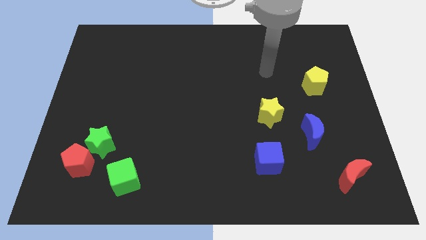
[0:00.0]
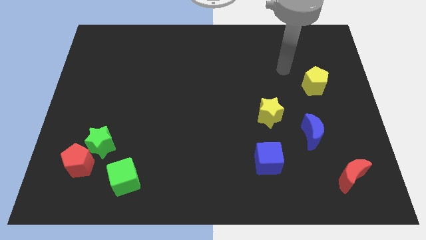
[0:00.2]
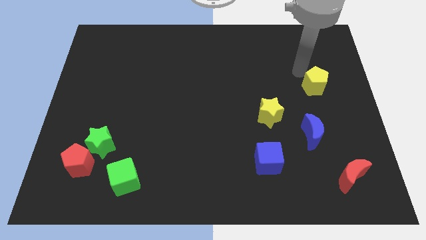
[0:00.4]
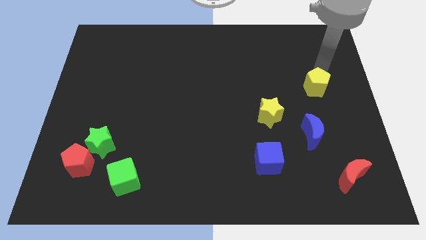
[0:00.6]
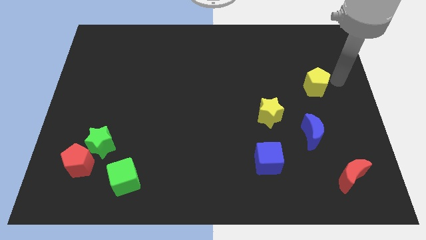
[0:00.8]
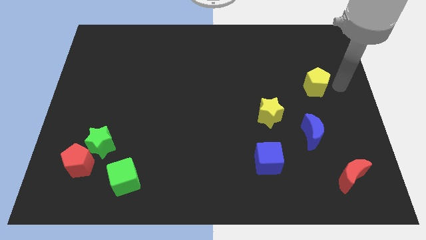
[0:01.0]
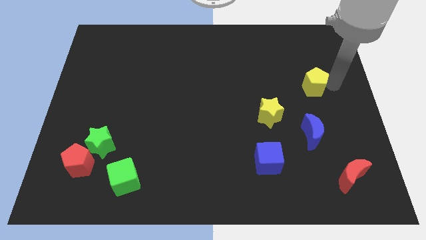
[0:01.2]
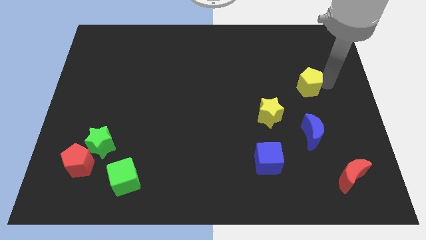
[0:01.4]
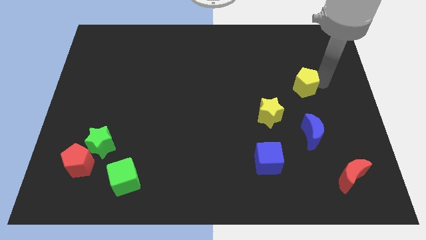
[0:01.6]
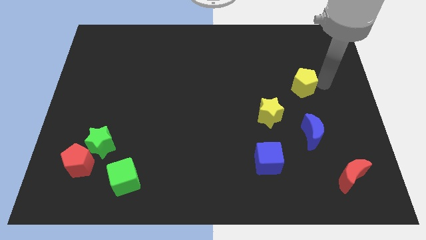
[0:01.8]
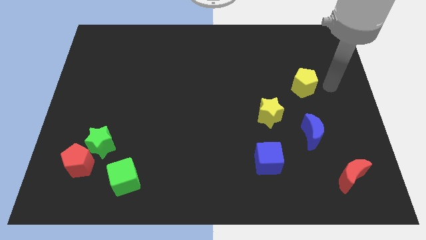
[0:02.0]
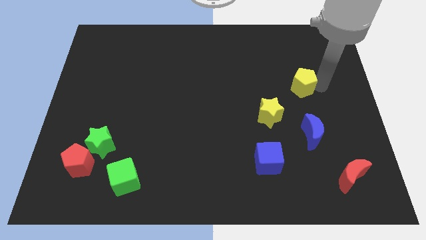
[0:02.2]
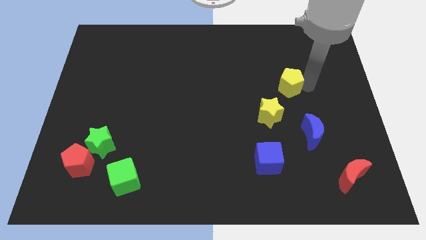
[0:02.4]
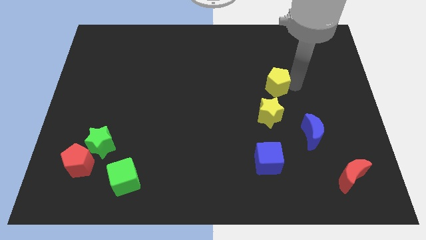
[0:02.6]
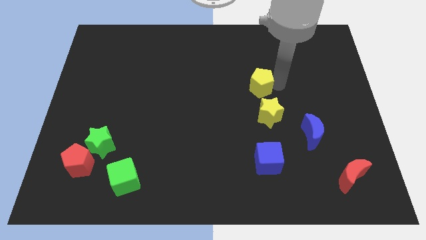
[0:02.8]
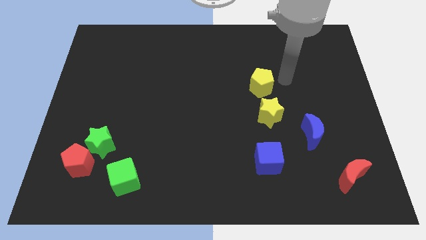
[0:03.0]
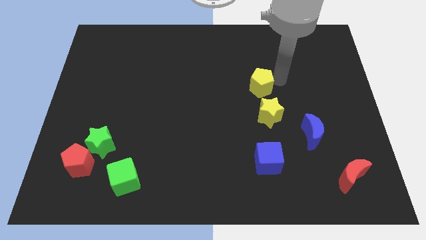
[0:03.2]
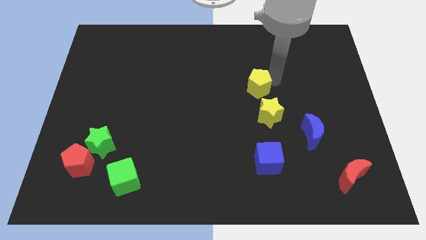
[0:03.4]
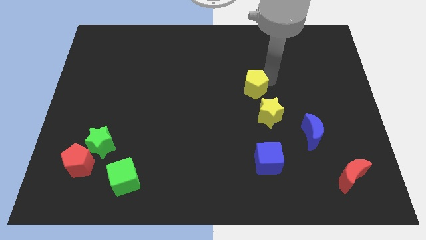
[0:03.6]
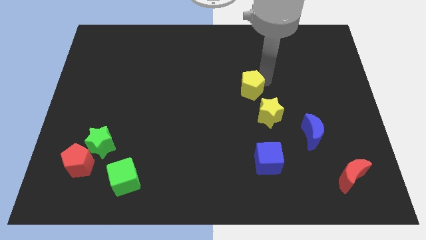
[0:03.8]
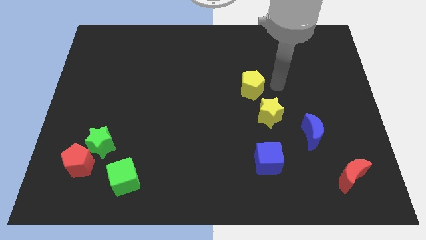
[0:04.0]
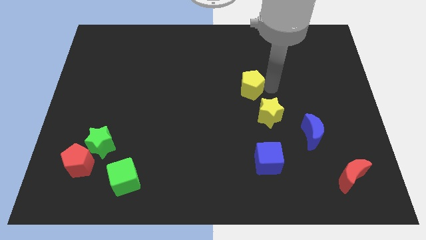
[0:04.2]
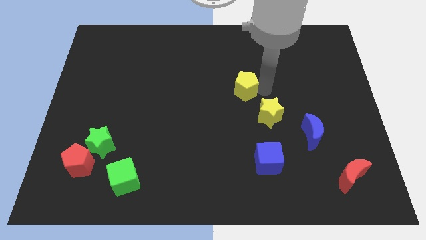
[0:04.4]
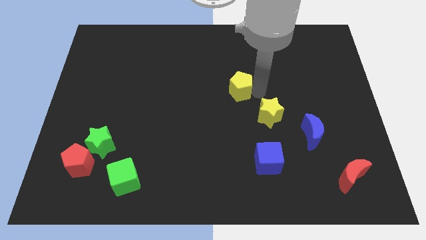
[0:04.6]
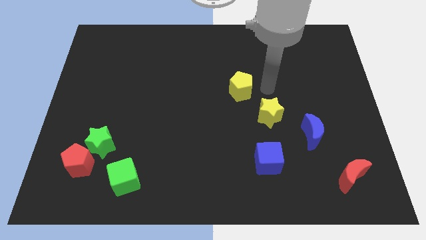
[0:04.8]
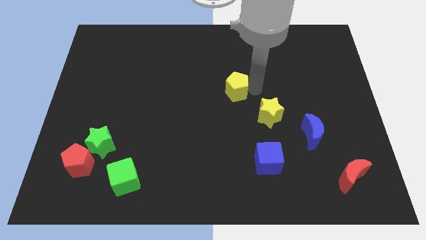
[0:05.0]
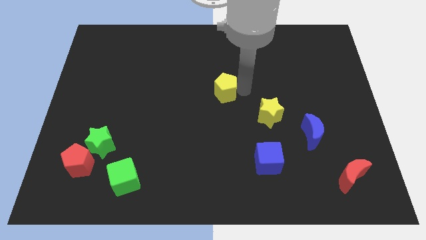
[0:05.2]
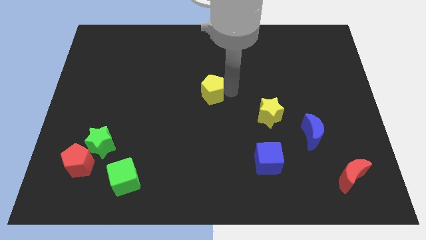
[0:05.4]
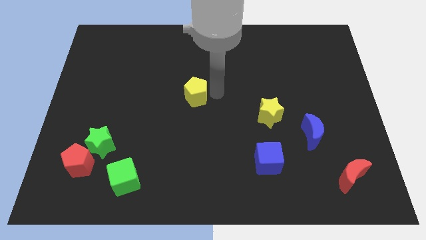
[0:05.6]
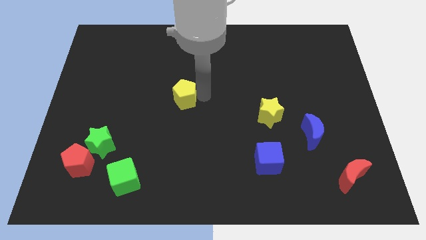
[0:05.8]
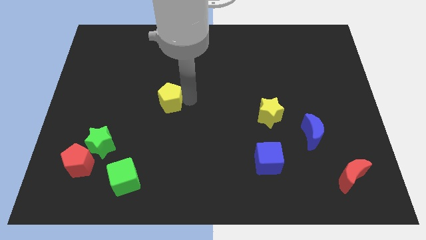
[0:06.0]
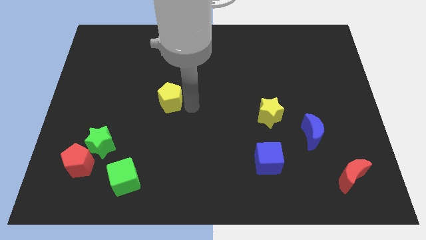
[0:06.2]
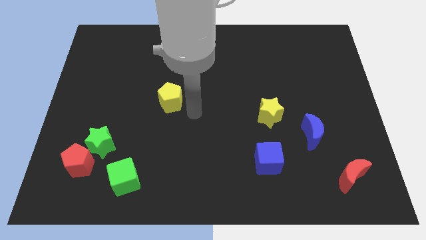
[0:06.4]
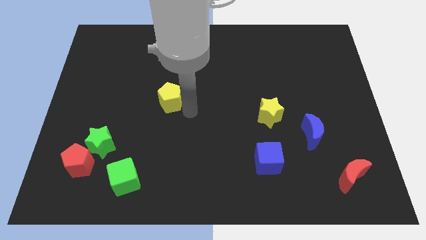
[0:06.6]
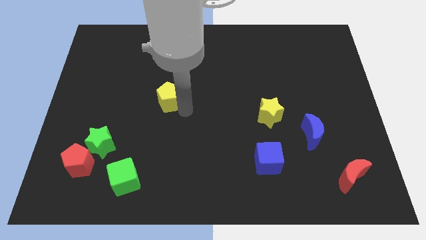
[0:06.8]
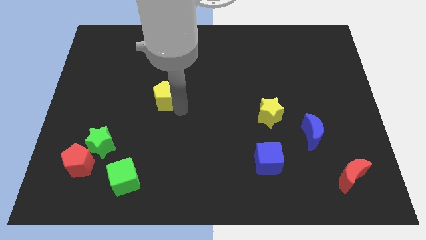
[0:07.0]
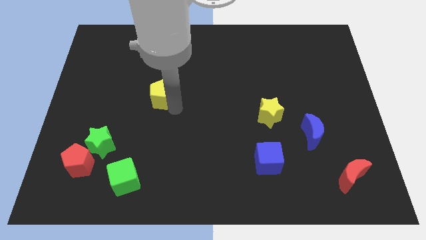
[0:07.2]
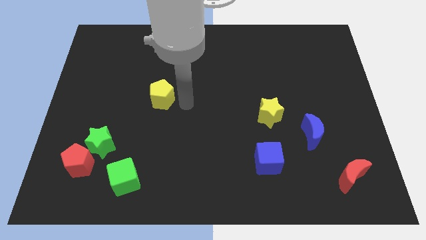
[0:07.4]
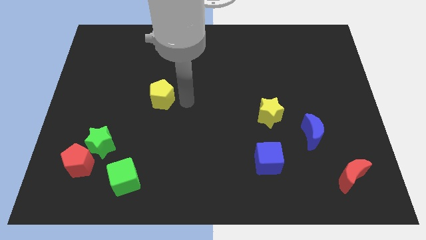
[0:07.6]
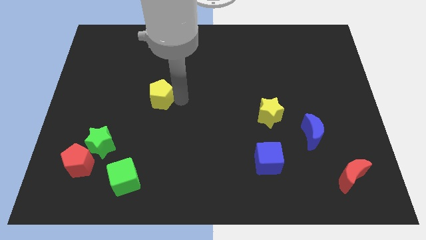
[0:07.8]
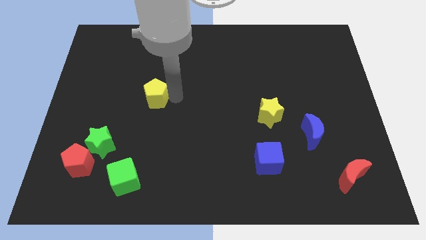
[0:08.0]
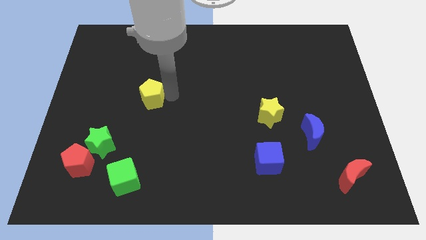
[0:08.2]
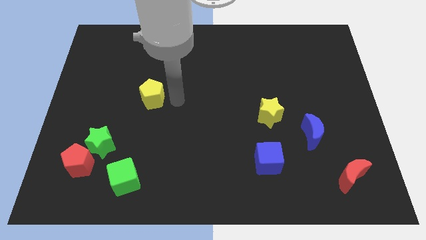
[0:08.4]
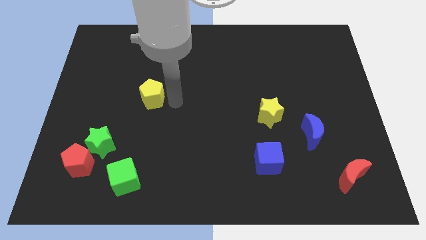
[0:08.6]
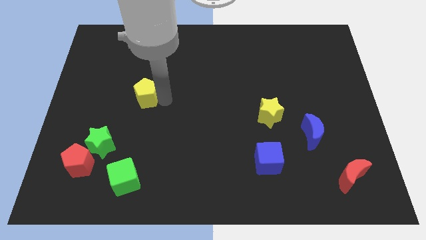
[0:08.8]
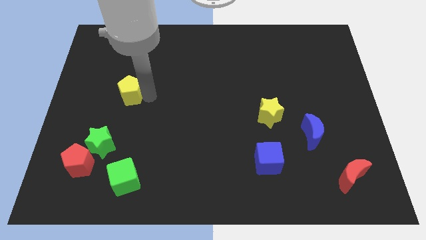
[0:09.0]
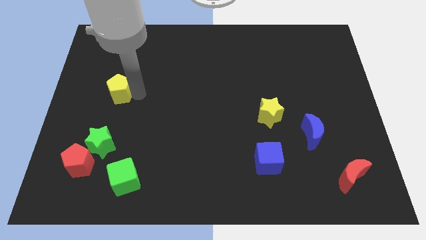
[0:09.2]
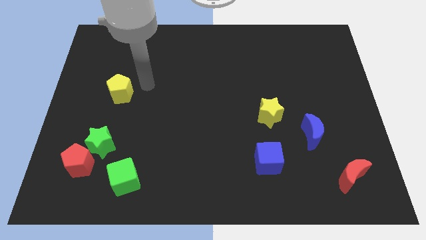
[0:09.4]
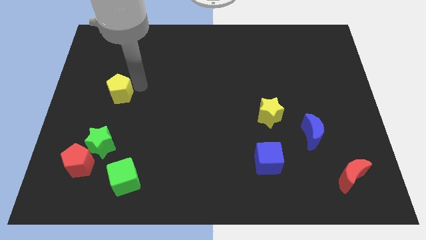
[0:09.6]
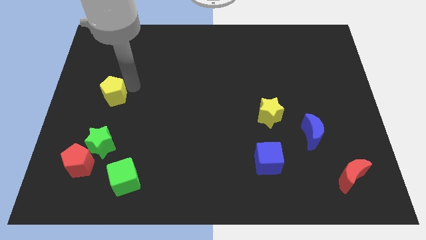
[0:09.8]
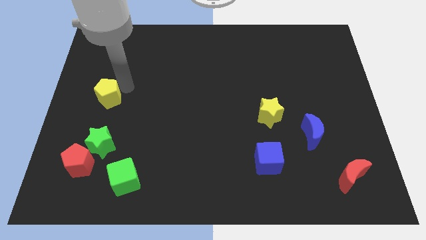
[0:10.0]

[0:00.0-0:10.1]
slide the yellow pentagon to the center left

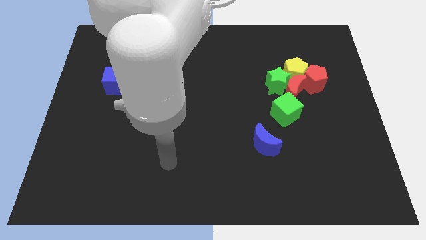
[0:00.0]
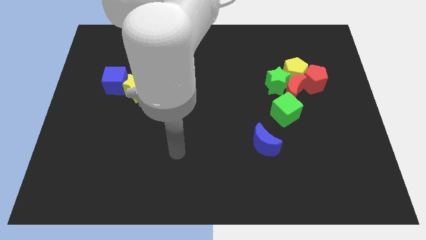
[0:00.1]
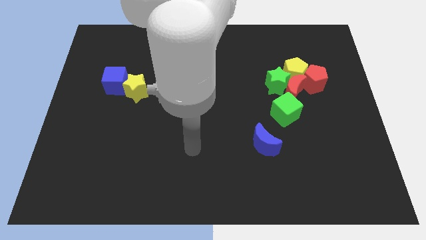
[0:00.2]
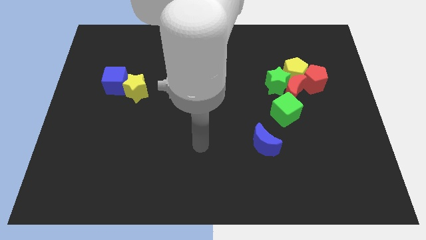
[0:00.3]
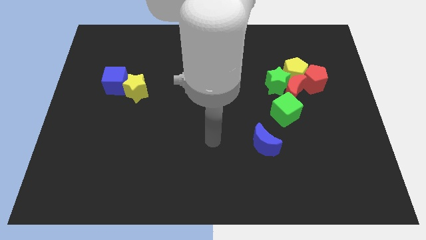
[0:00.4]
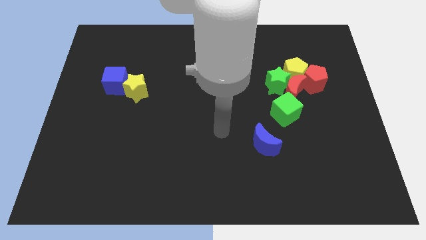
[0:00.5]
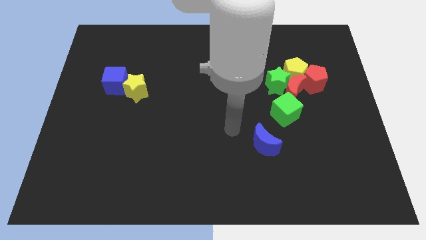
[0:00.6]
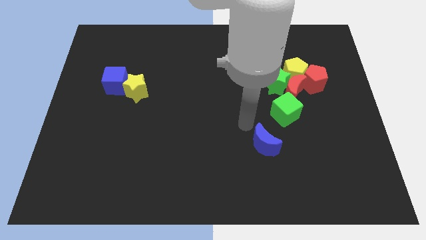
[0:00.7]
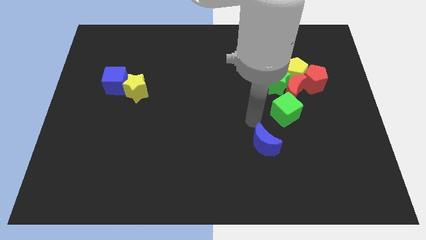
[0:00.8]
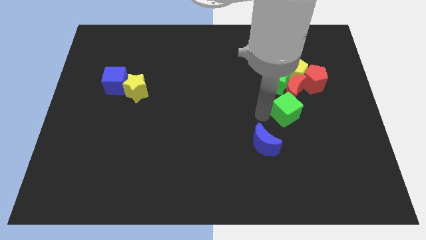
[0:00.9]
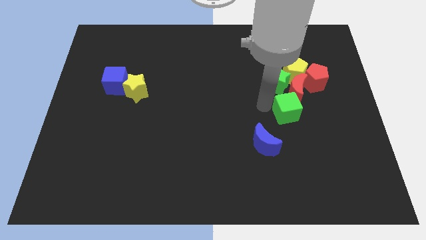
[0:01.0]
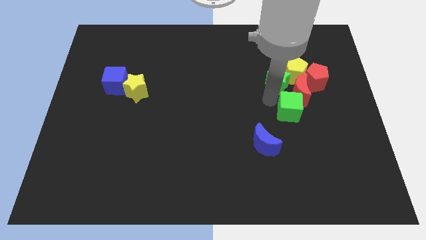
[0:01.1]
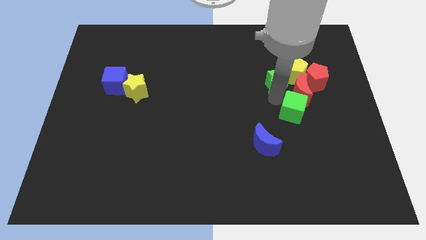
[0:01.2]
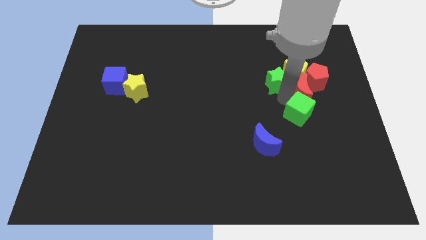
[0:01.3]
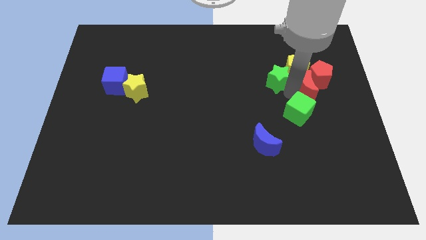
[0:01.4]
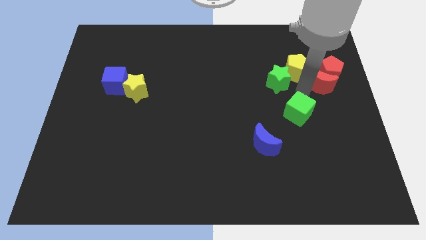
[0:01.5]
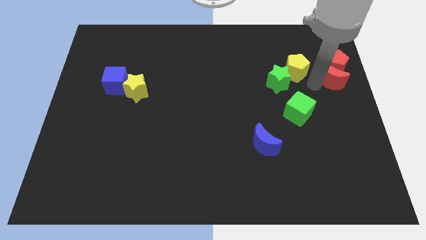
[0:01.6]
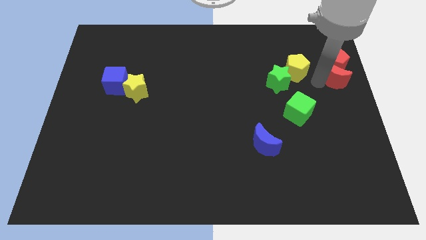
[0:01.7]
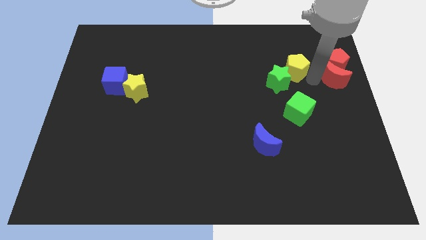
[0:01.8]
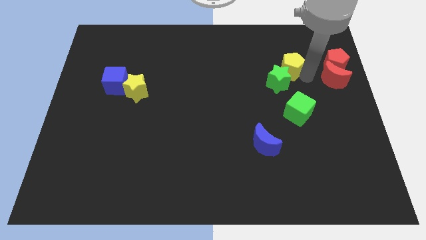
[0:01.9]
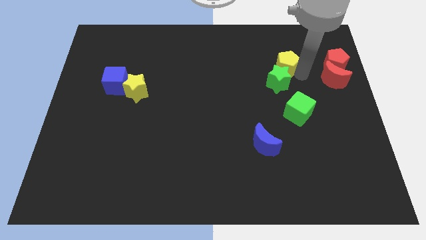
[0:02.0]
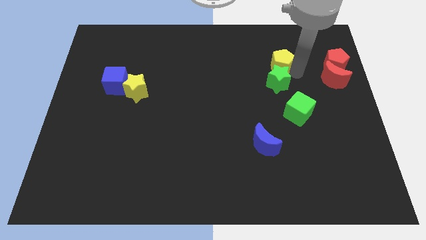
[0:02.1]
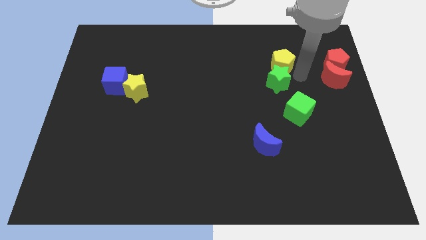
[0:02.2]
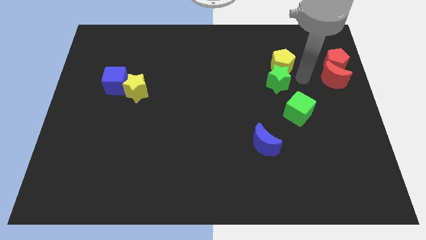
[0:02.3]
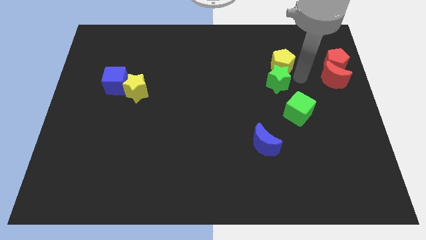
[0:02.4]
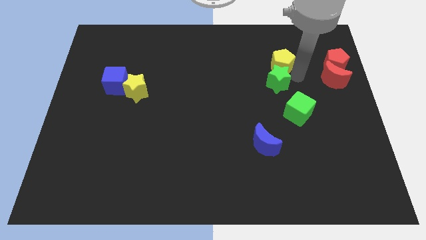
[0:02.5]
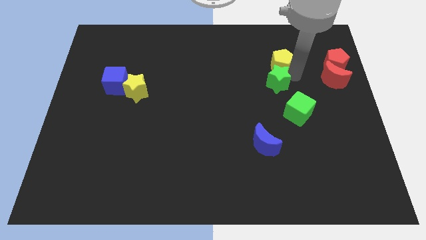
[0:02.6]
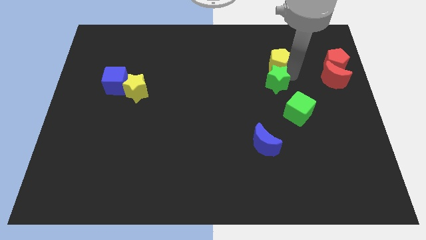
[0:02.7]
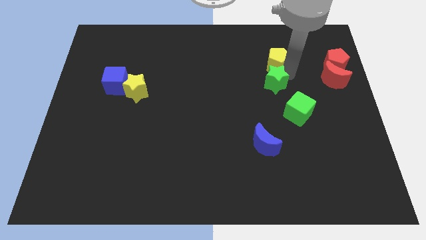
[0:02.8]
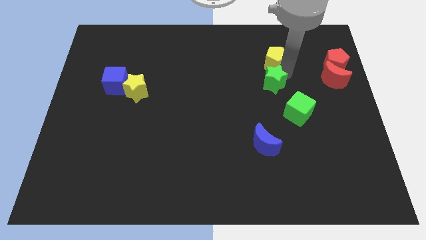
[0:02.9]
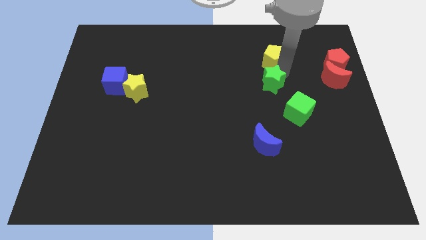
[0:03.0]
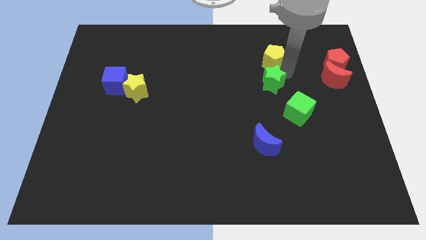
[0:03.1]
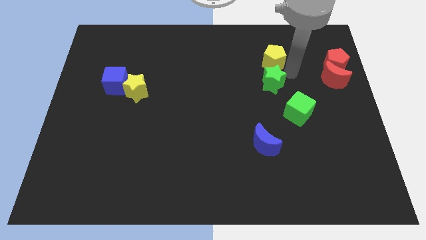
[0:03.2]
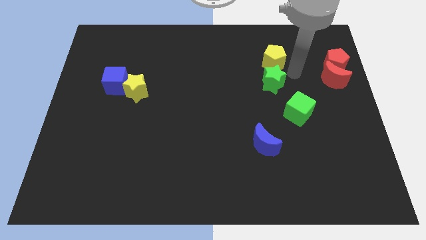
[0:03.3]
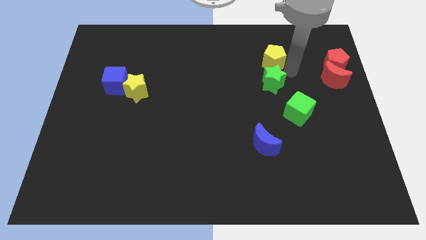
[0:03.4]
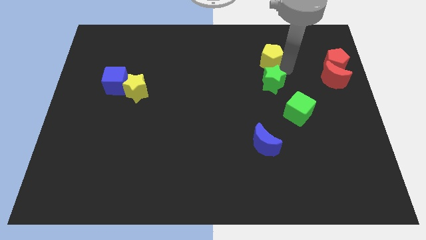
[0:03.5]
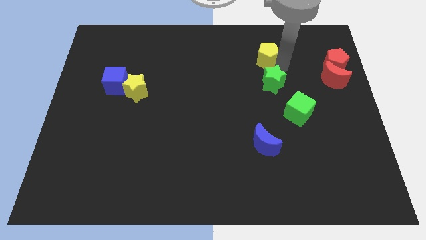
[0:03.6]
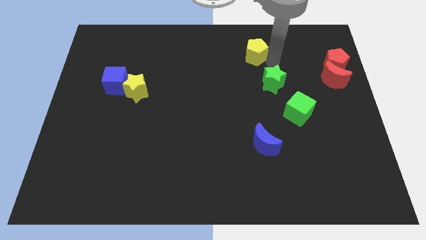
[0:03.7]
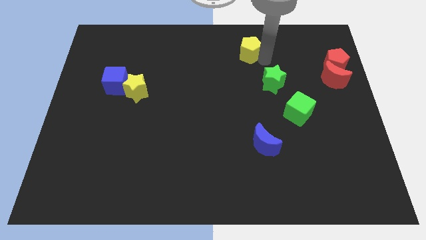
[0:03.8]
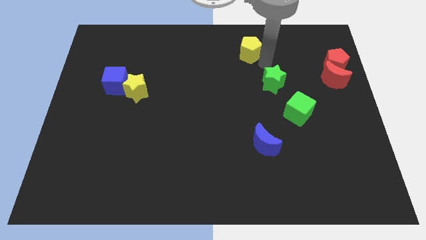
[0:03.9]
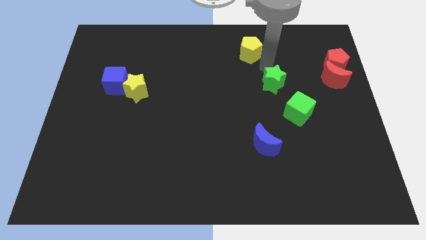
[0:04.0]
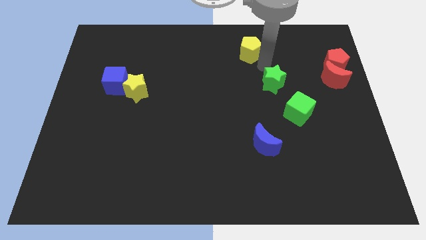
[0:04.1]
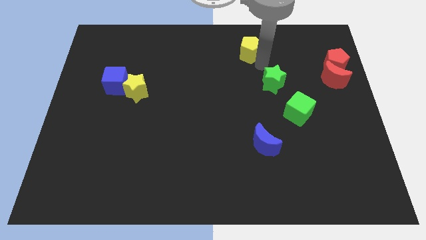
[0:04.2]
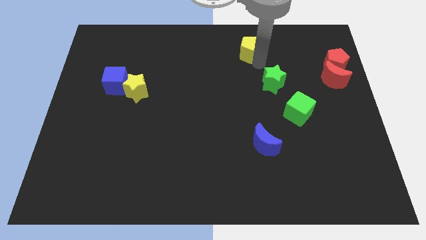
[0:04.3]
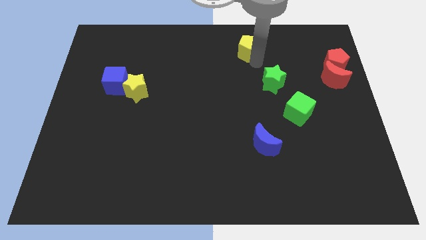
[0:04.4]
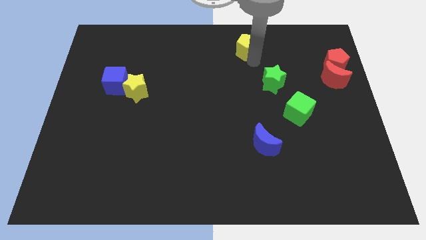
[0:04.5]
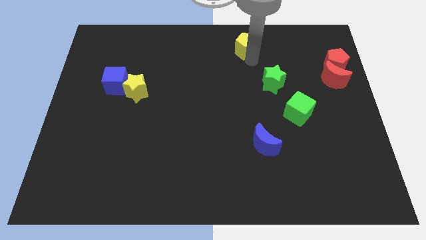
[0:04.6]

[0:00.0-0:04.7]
put the yellow pentagon to the top side
